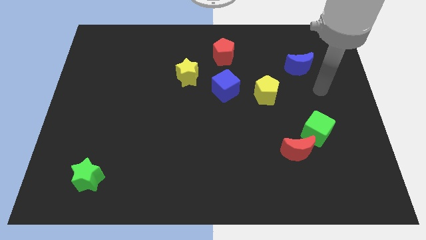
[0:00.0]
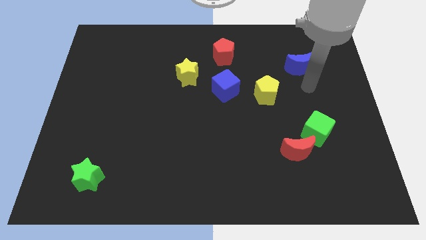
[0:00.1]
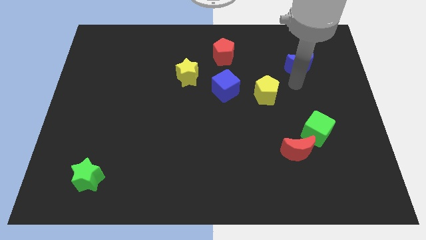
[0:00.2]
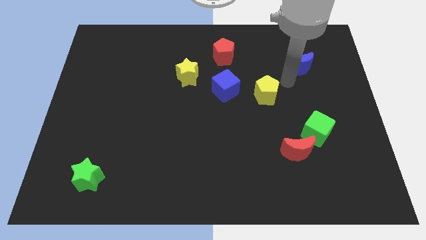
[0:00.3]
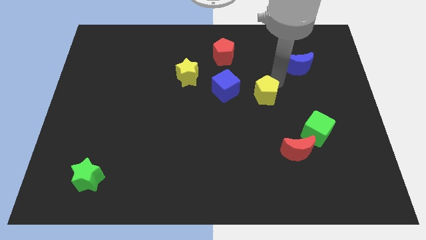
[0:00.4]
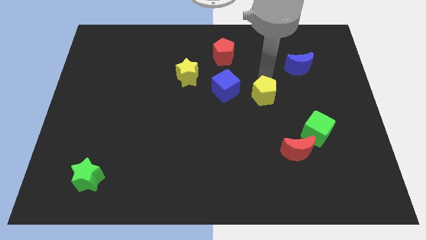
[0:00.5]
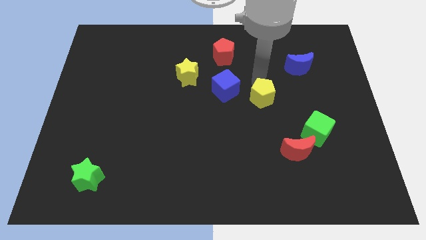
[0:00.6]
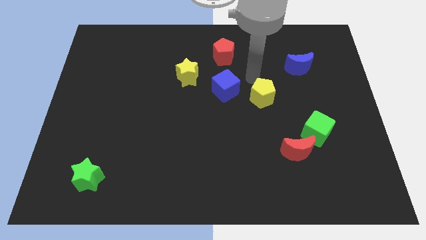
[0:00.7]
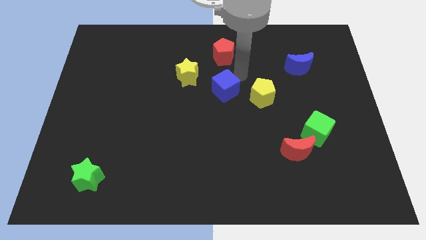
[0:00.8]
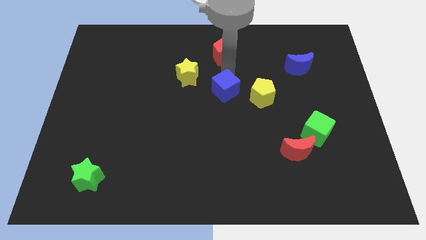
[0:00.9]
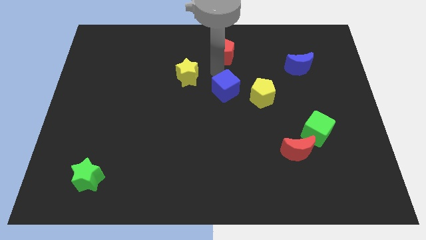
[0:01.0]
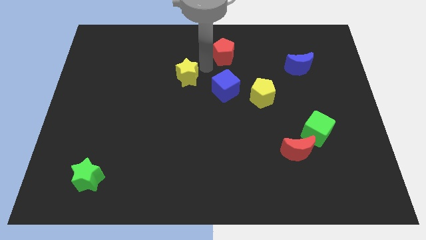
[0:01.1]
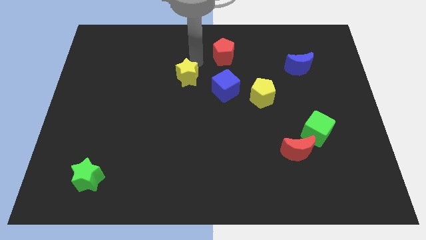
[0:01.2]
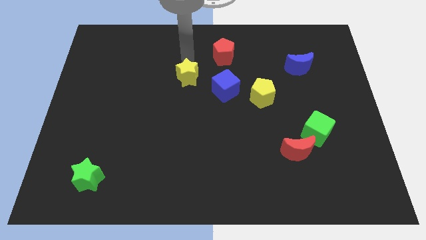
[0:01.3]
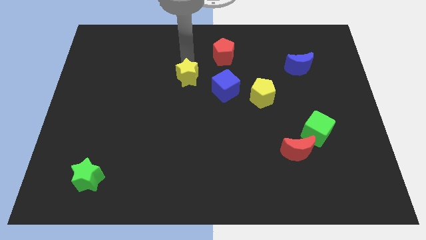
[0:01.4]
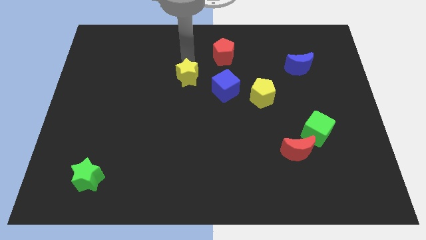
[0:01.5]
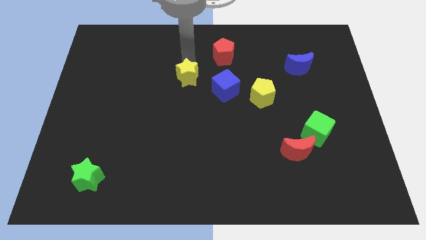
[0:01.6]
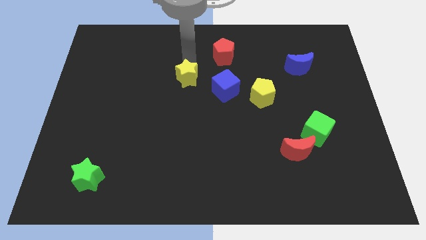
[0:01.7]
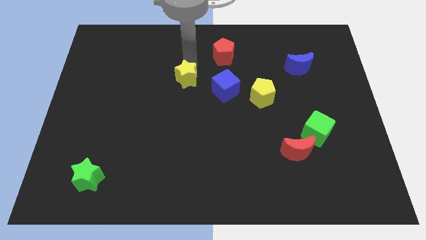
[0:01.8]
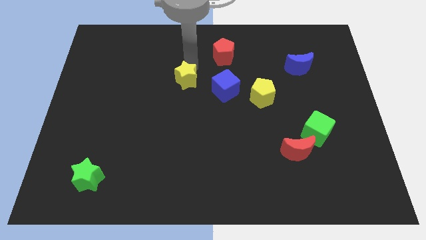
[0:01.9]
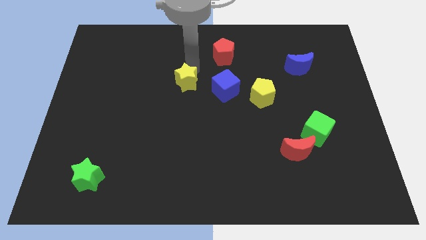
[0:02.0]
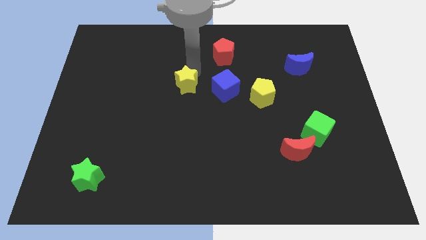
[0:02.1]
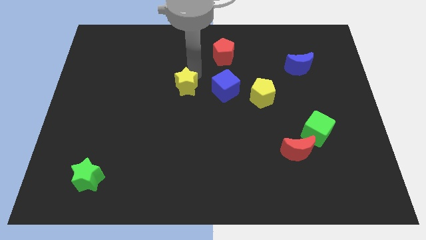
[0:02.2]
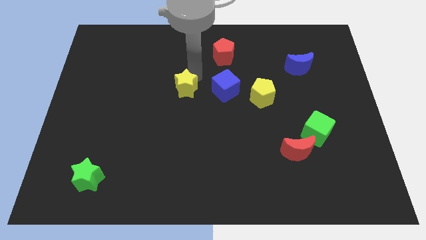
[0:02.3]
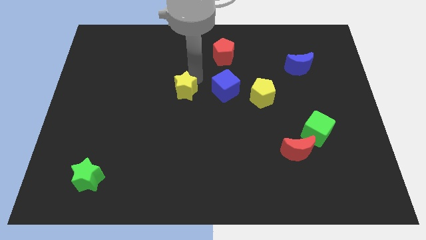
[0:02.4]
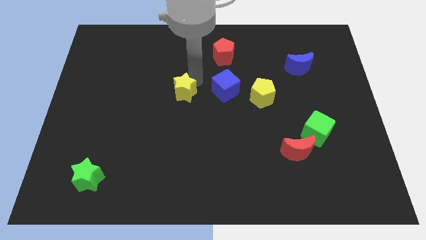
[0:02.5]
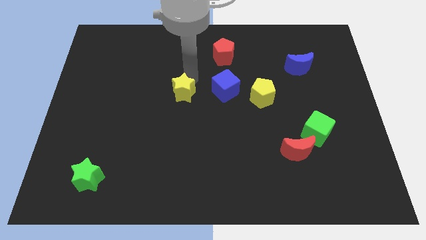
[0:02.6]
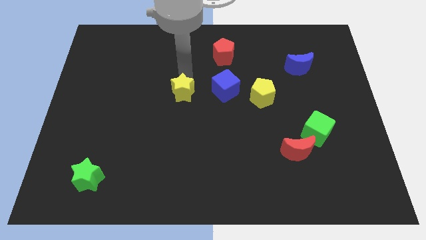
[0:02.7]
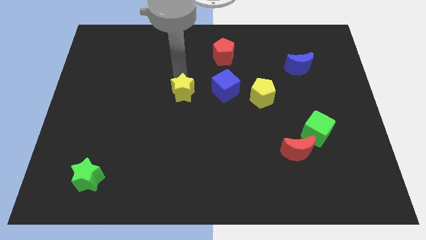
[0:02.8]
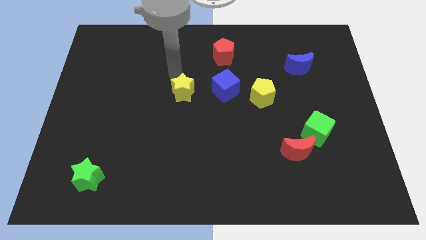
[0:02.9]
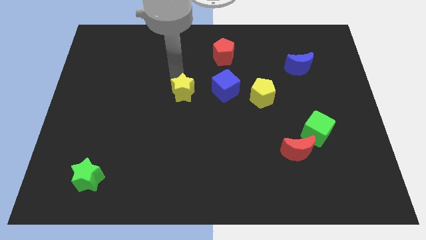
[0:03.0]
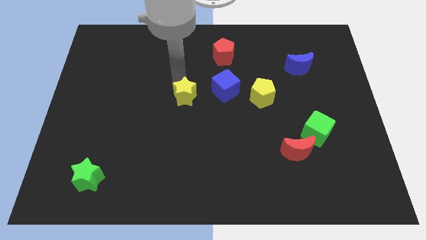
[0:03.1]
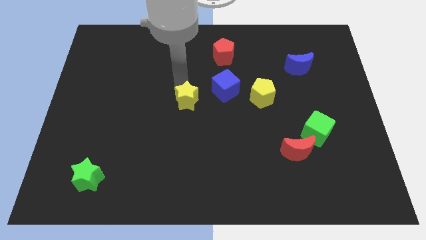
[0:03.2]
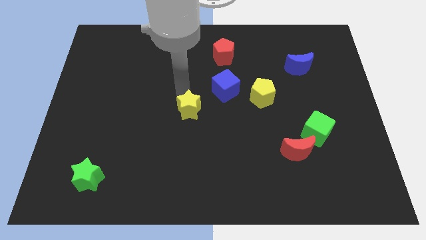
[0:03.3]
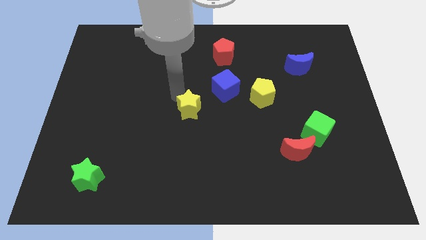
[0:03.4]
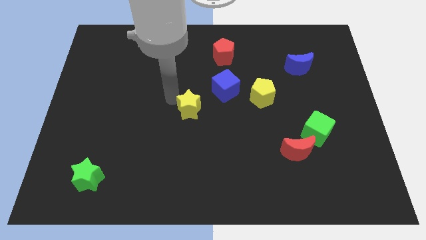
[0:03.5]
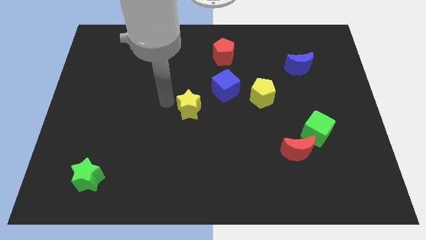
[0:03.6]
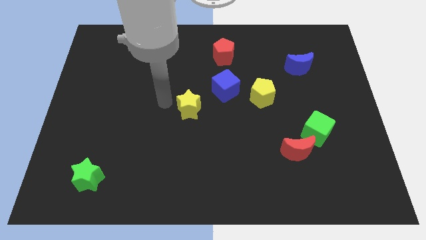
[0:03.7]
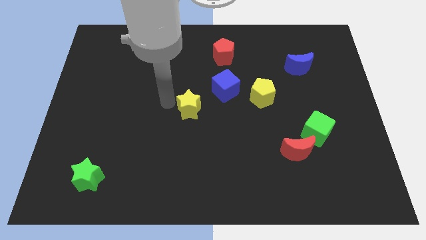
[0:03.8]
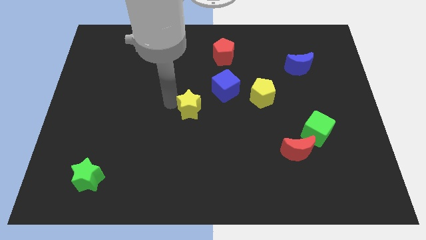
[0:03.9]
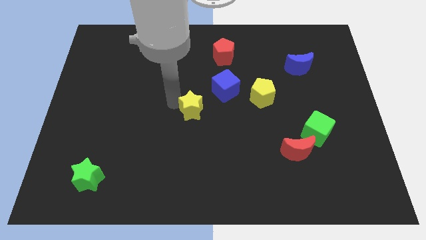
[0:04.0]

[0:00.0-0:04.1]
move the yellow star a bit downwards and right

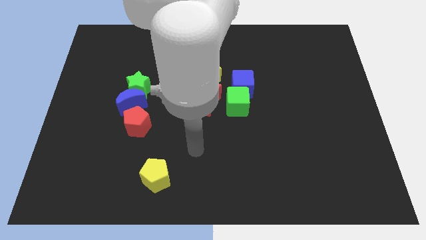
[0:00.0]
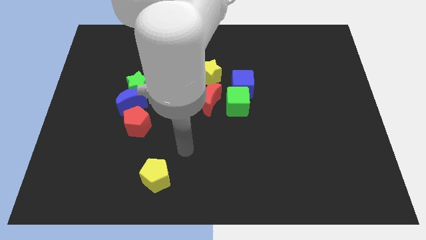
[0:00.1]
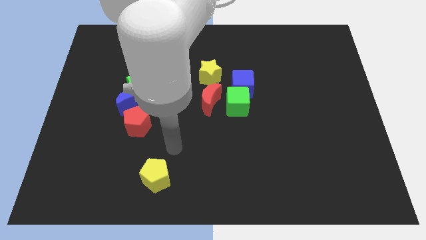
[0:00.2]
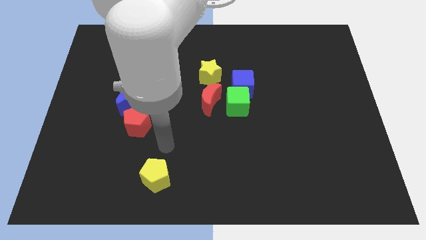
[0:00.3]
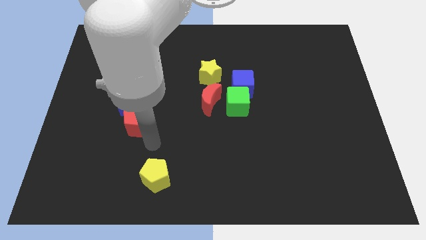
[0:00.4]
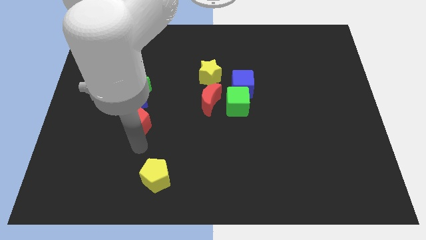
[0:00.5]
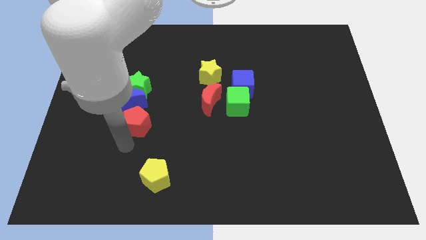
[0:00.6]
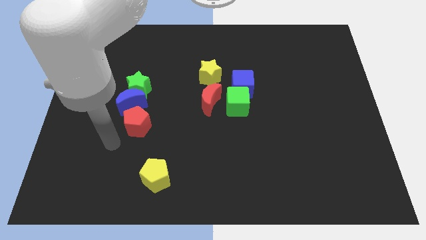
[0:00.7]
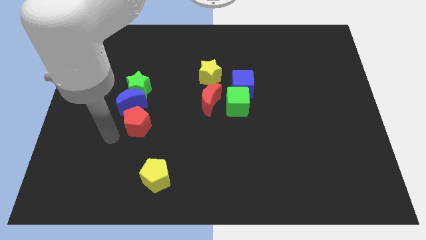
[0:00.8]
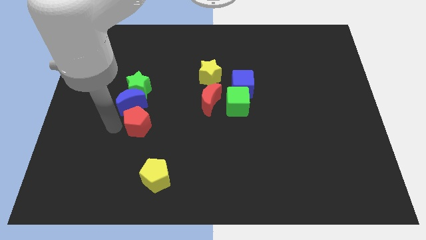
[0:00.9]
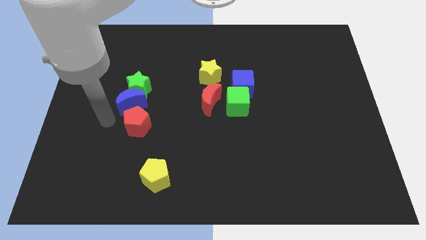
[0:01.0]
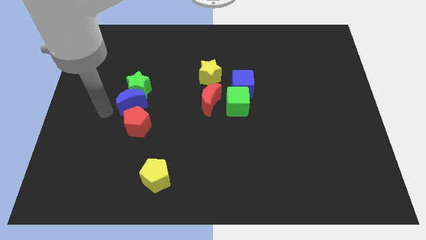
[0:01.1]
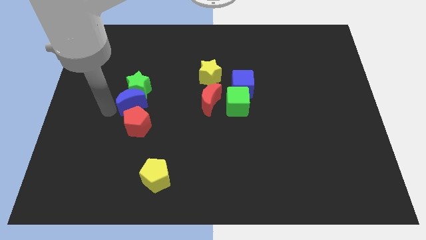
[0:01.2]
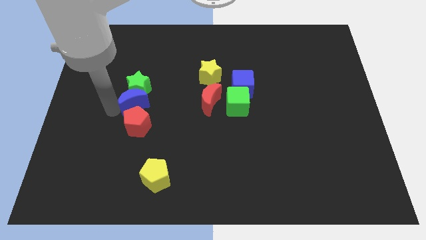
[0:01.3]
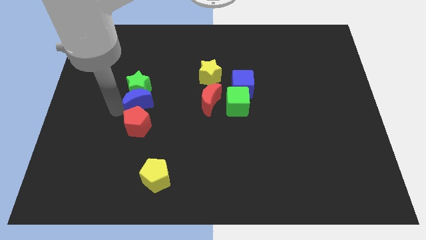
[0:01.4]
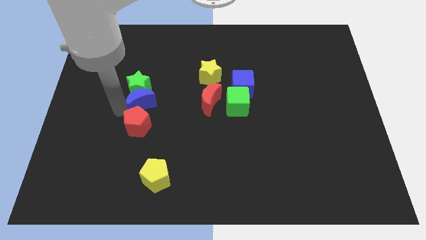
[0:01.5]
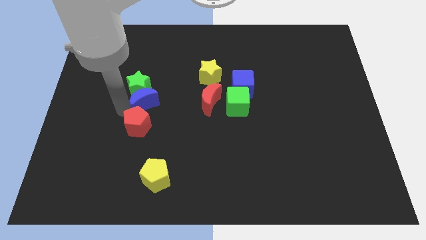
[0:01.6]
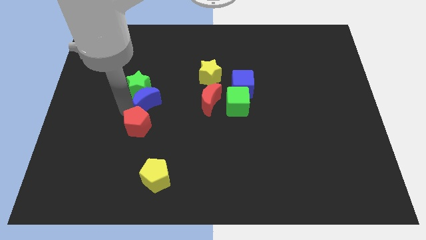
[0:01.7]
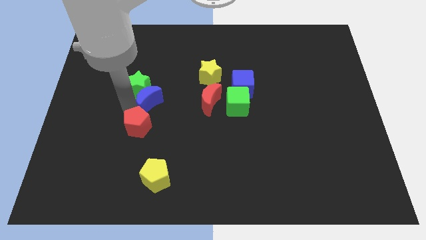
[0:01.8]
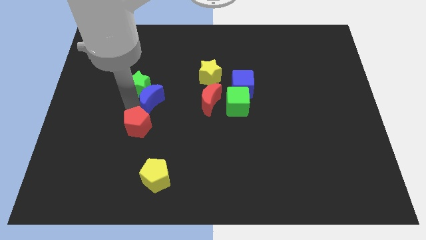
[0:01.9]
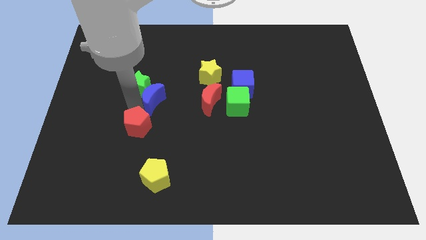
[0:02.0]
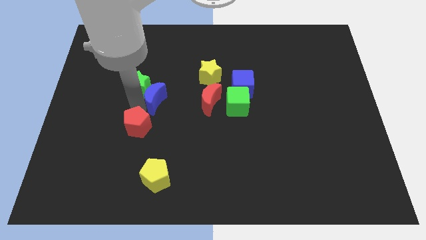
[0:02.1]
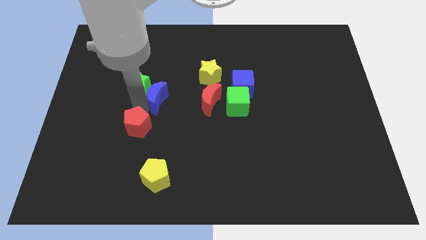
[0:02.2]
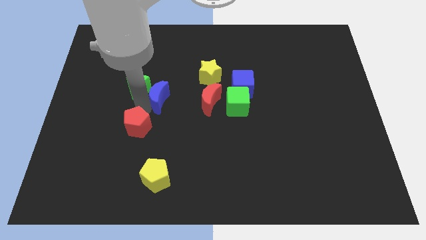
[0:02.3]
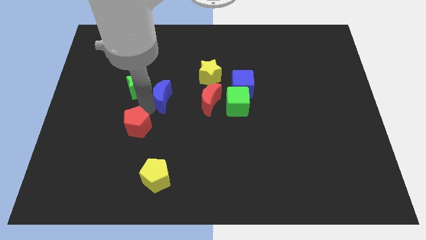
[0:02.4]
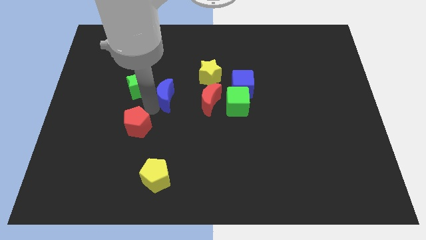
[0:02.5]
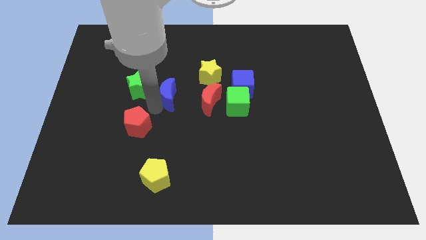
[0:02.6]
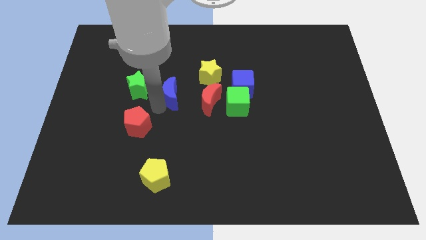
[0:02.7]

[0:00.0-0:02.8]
move the blue moon up and right a little bit

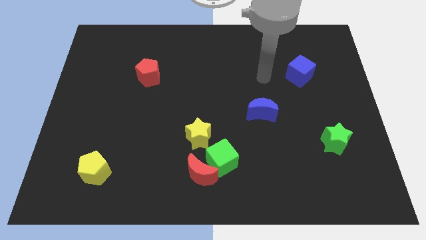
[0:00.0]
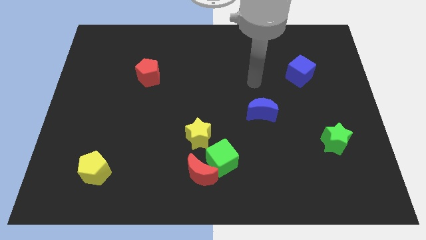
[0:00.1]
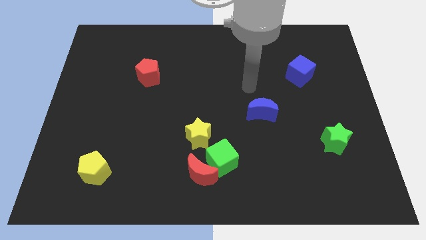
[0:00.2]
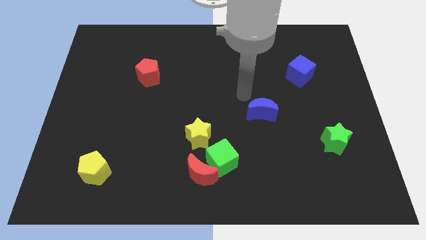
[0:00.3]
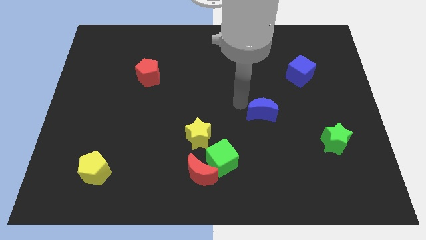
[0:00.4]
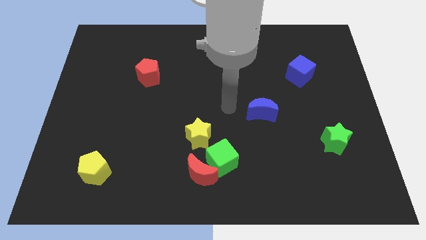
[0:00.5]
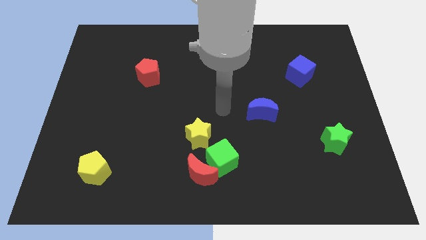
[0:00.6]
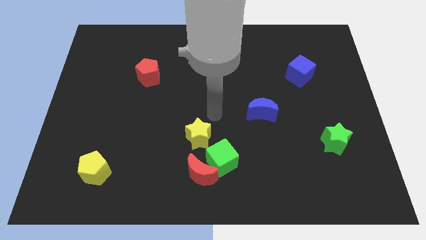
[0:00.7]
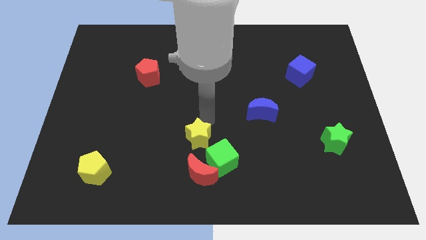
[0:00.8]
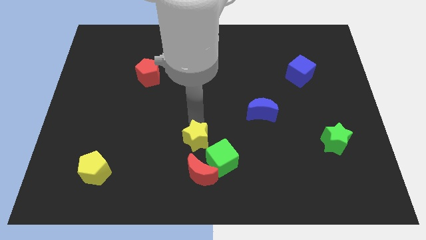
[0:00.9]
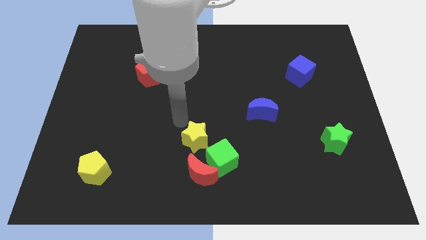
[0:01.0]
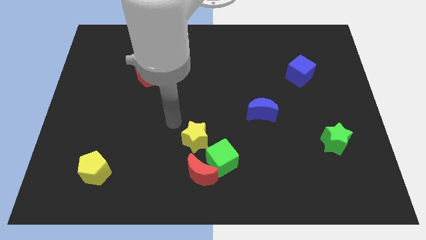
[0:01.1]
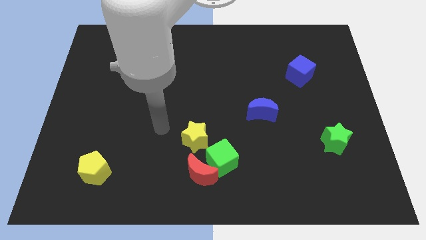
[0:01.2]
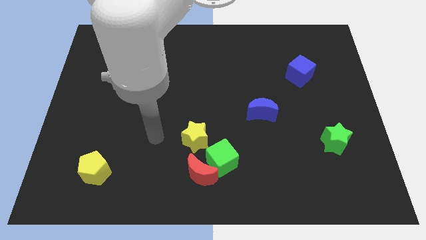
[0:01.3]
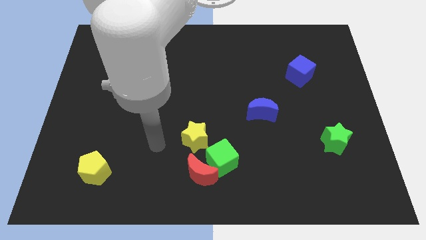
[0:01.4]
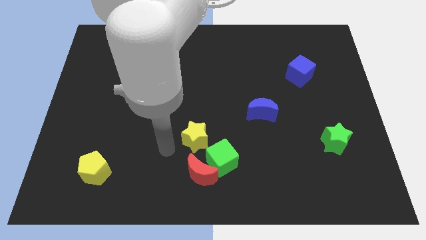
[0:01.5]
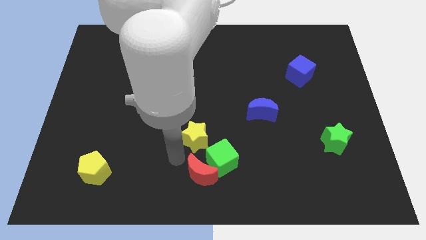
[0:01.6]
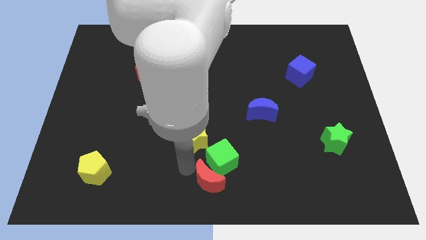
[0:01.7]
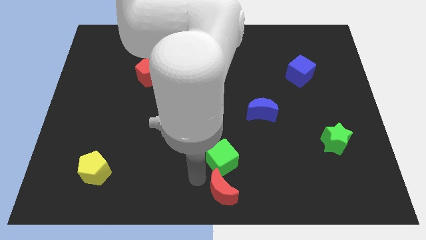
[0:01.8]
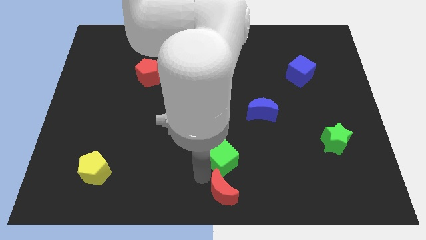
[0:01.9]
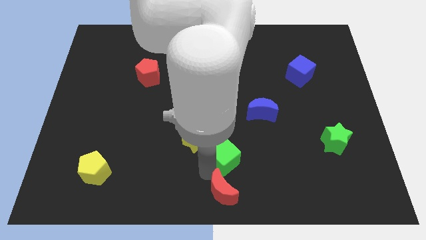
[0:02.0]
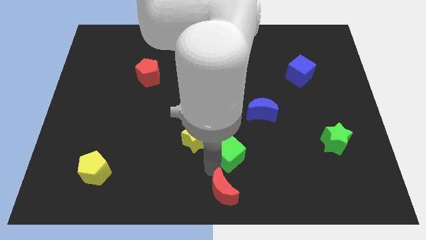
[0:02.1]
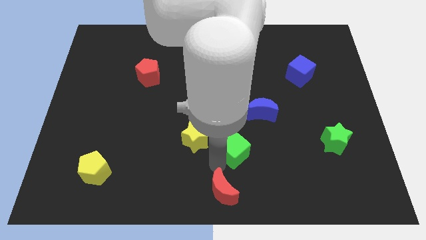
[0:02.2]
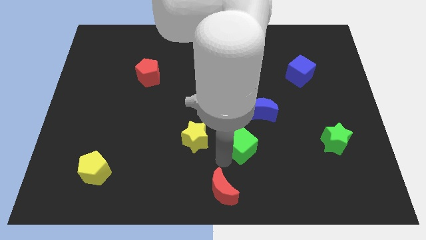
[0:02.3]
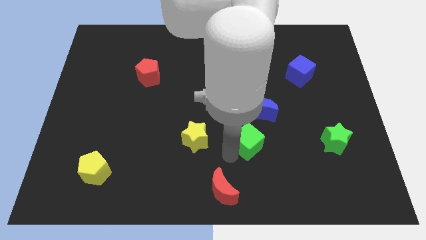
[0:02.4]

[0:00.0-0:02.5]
slide the green cube a little upwards and to the right diagonally
